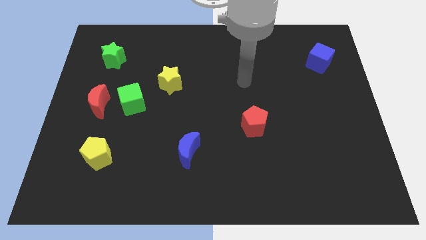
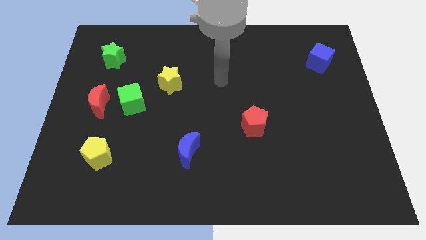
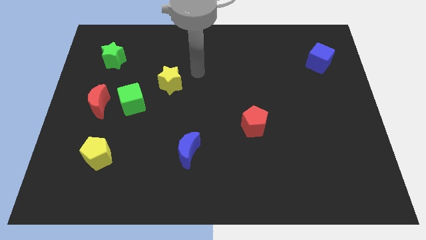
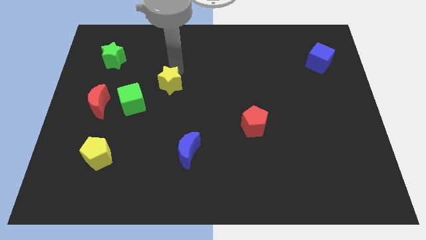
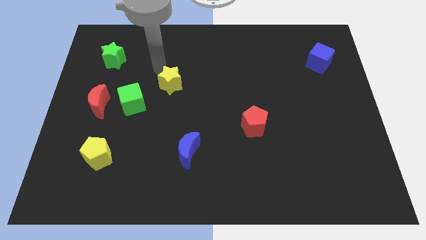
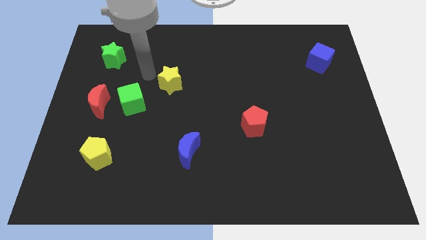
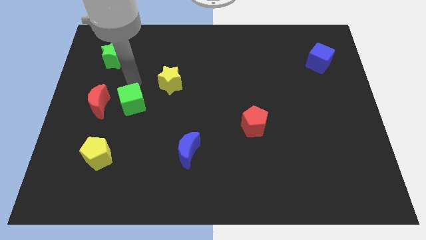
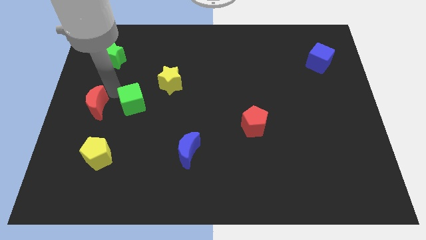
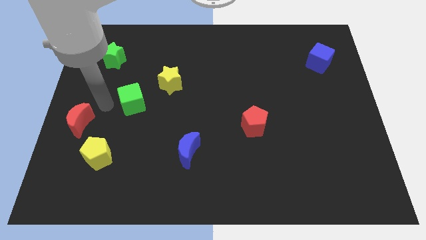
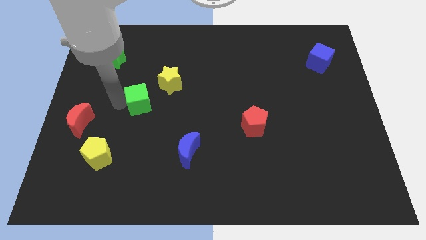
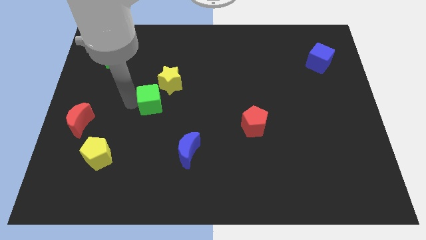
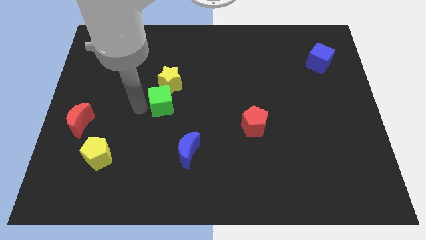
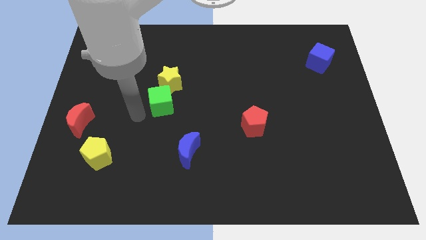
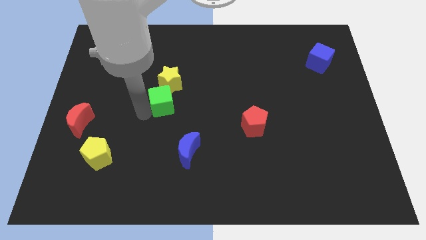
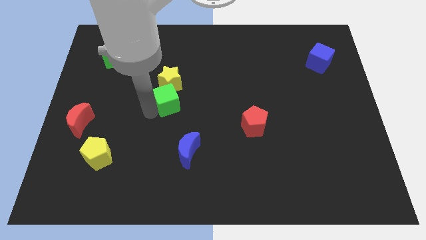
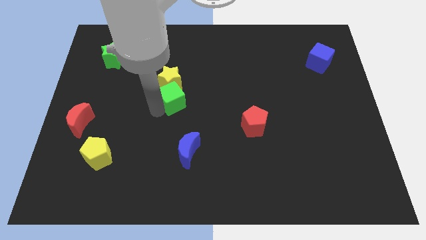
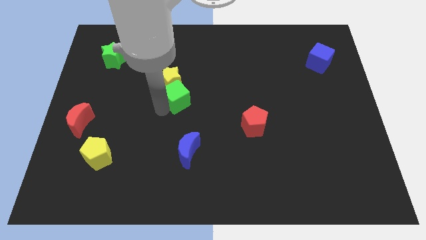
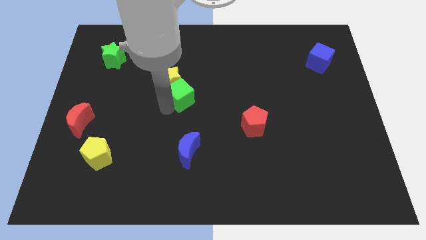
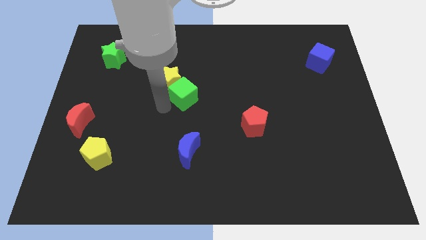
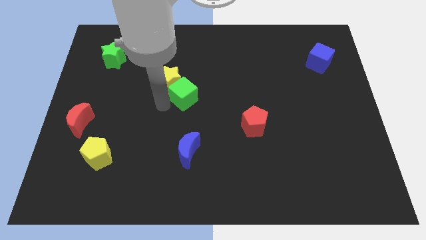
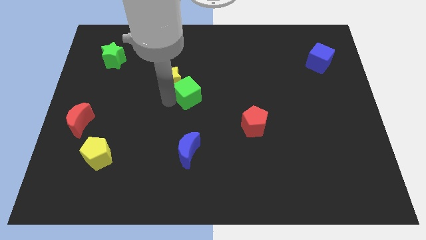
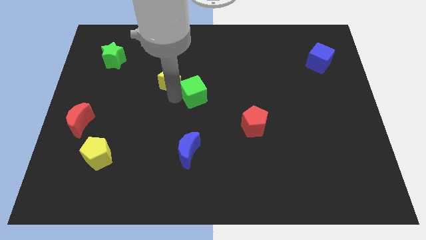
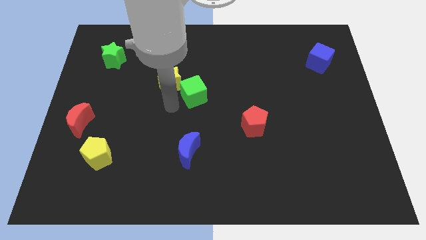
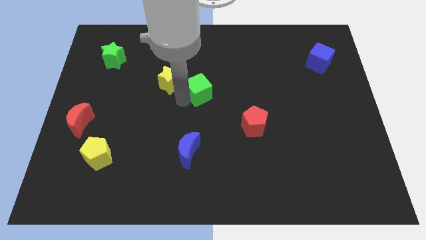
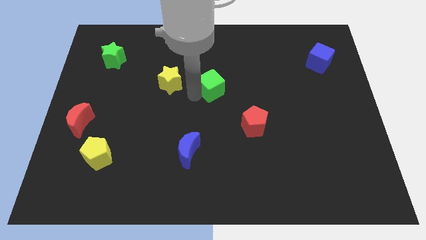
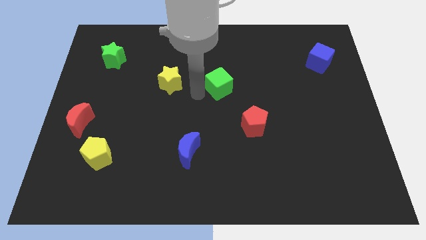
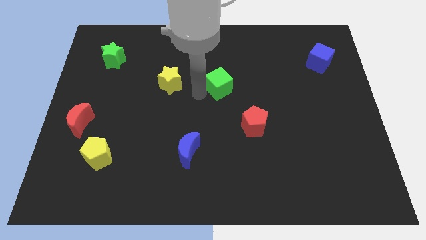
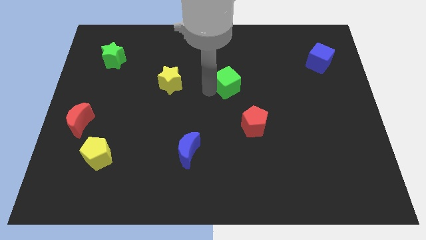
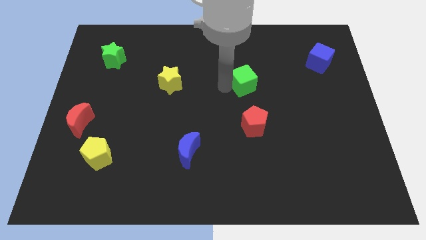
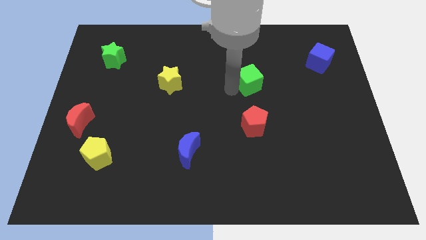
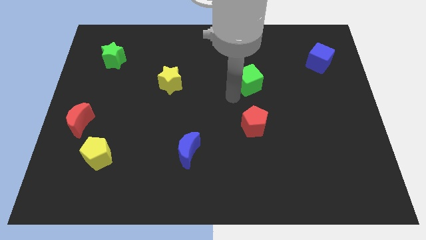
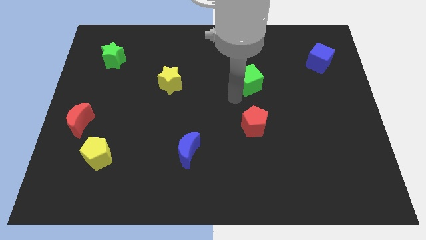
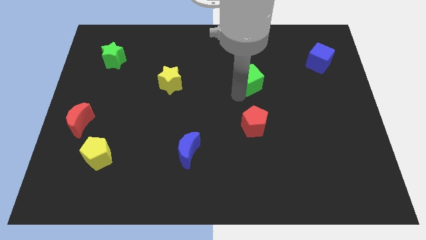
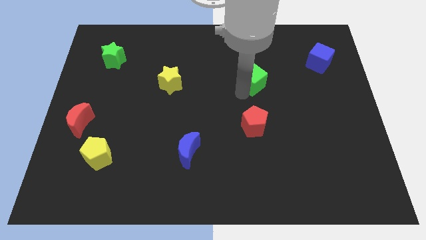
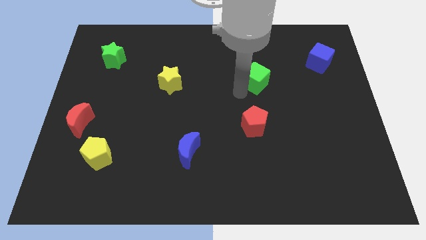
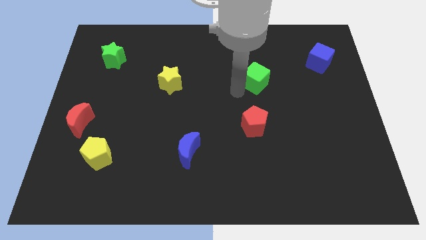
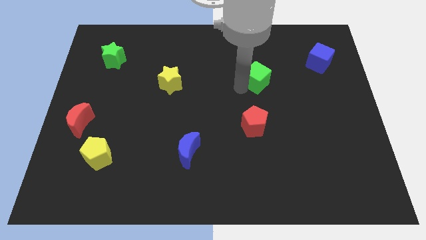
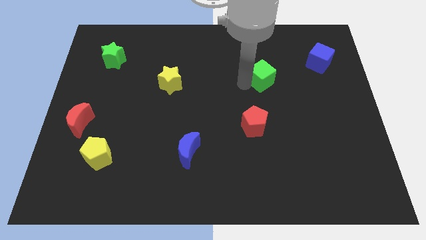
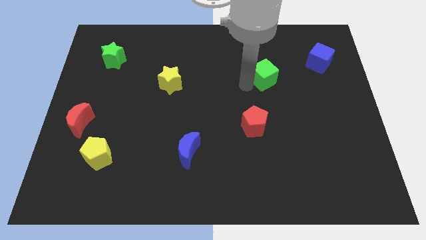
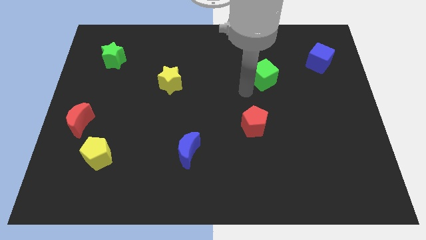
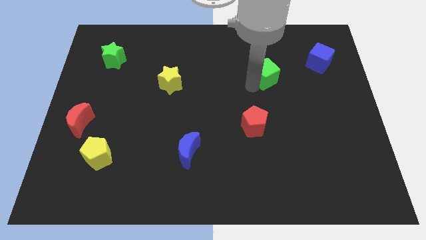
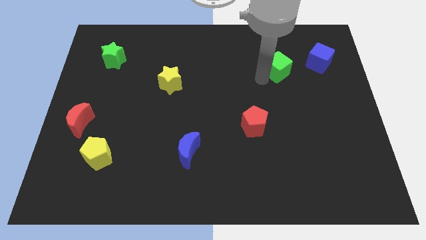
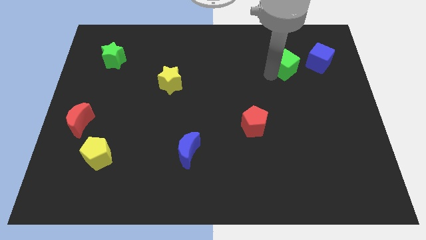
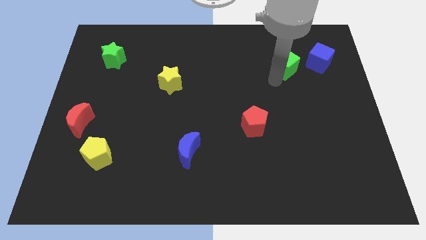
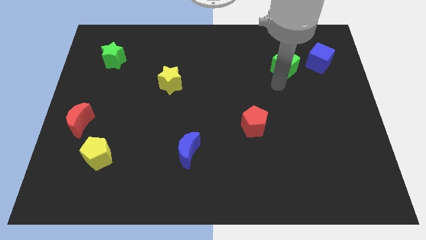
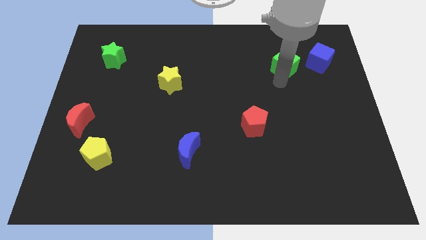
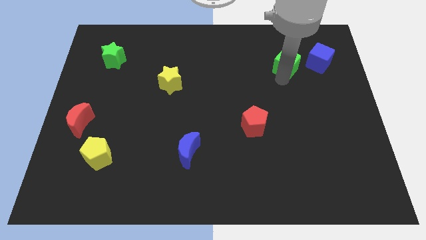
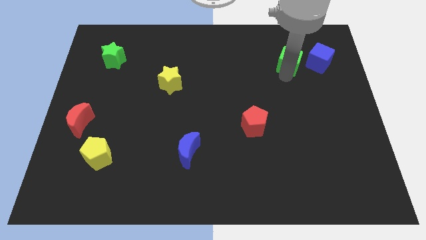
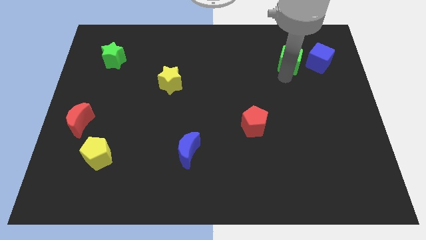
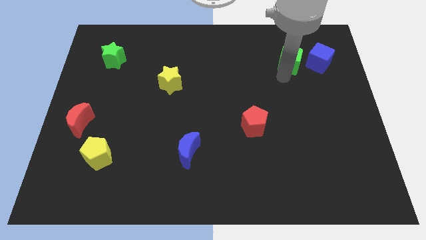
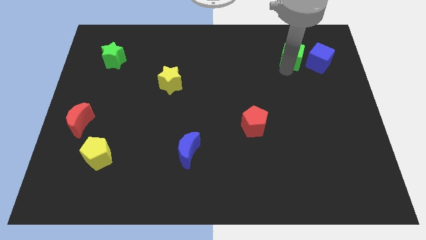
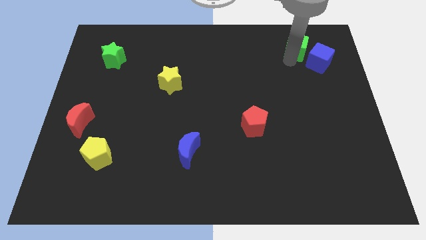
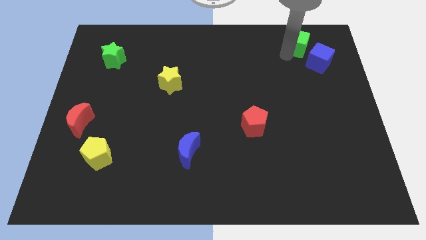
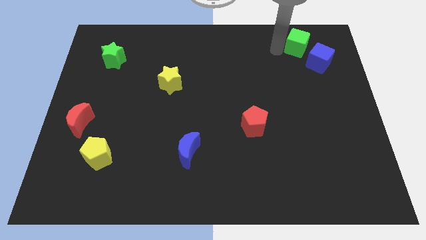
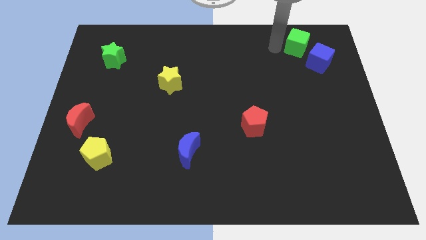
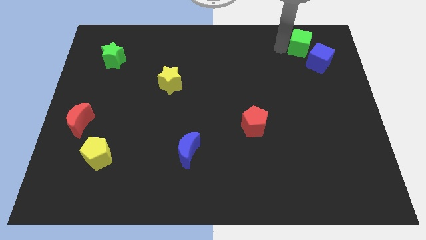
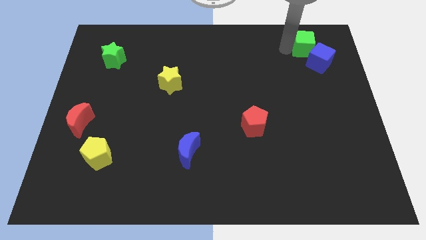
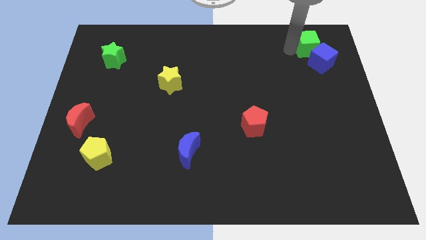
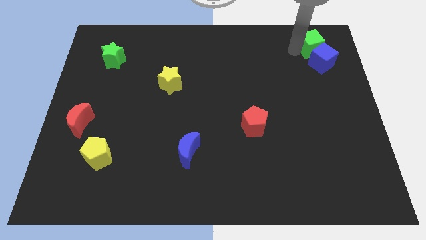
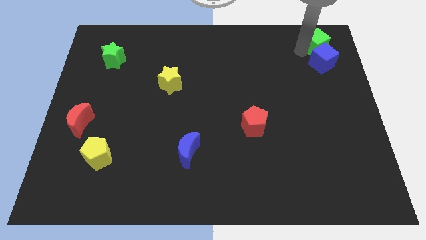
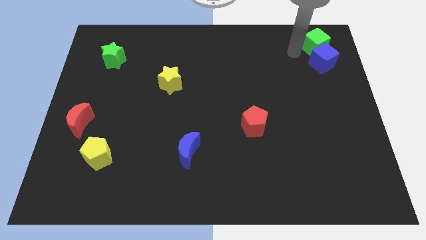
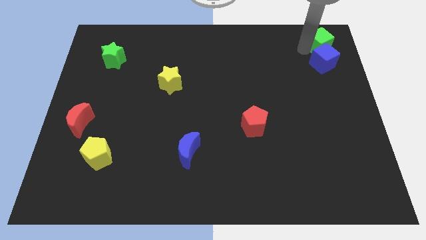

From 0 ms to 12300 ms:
push the green cube to the top right corner

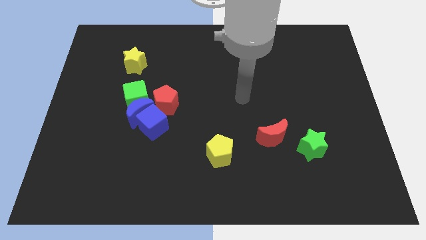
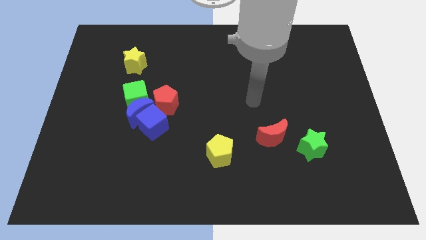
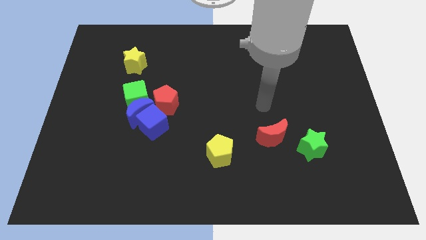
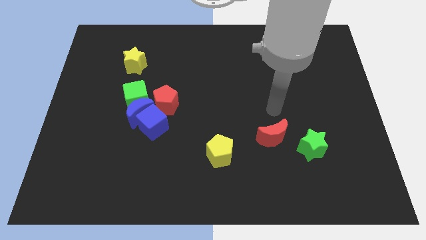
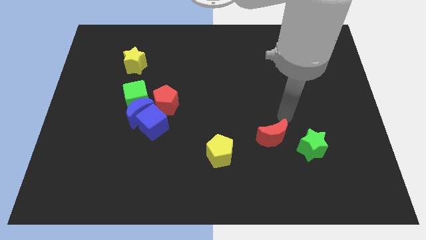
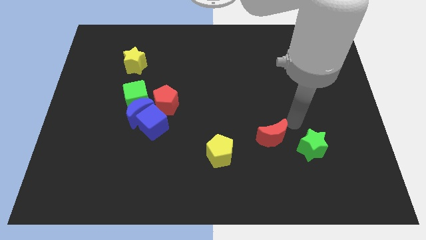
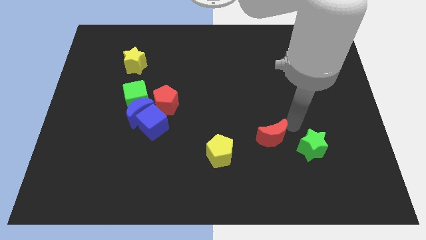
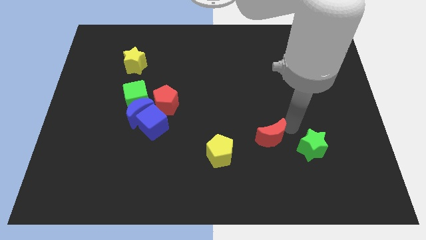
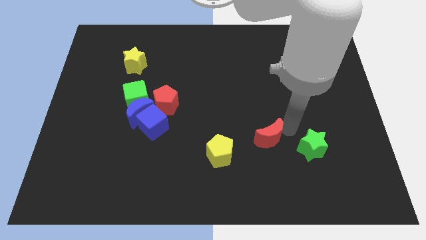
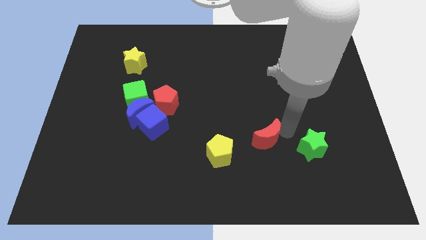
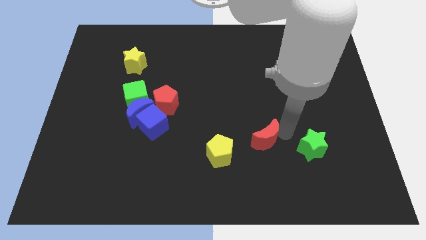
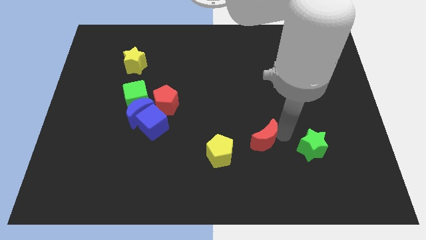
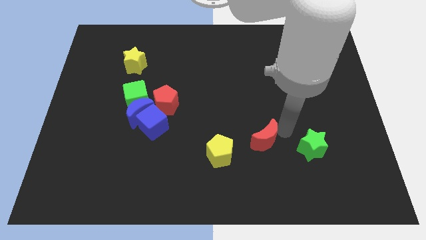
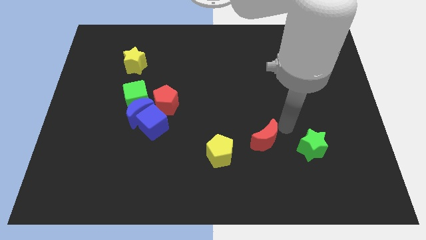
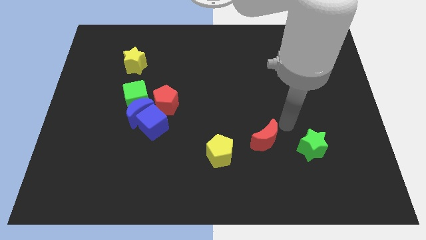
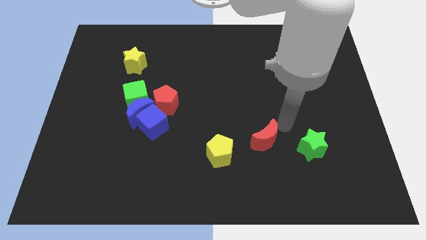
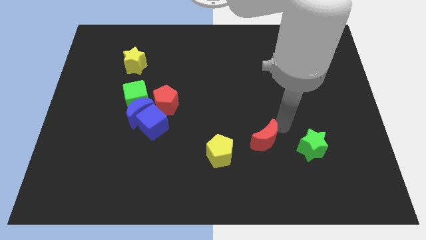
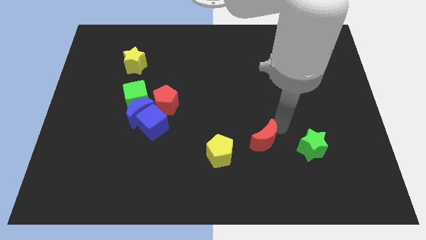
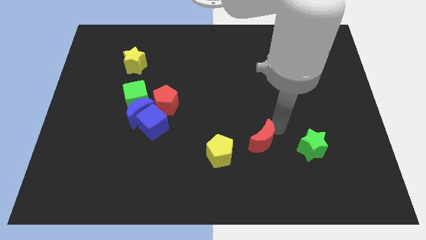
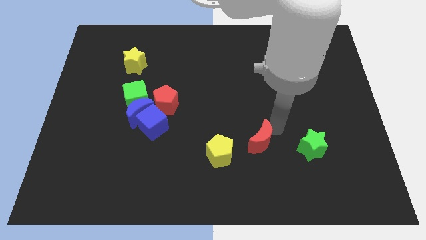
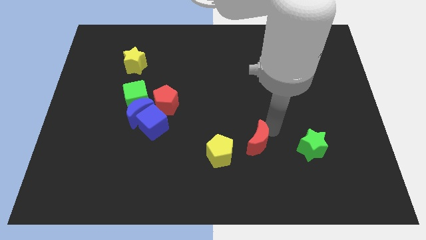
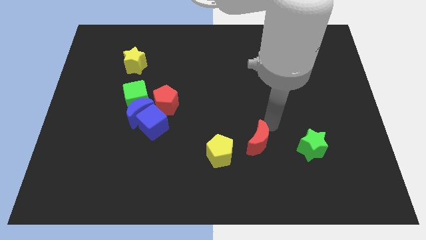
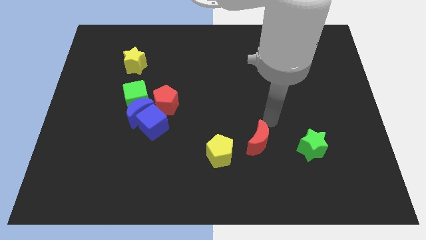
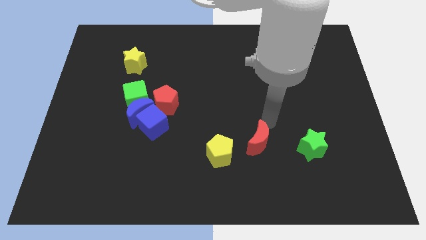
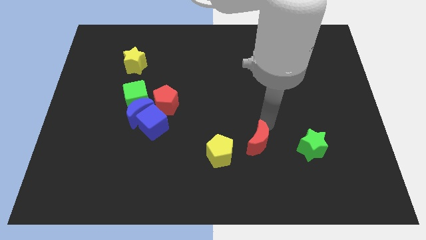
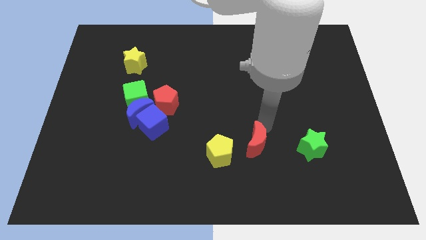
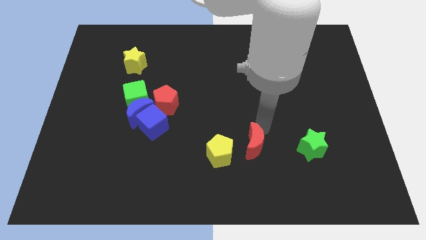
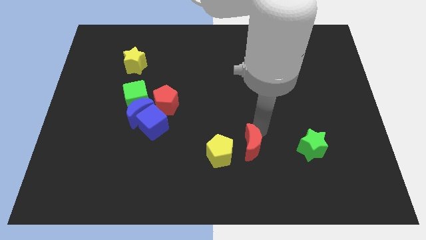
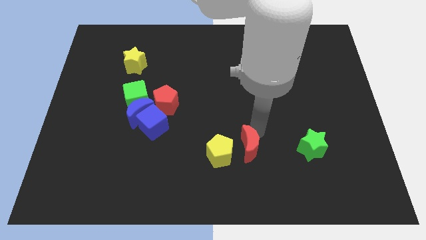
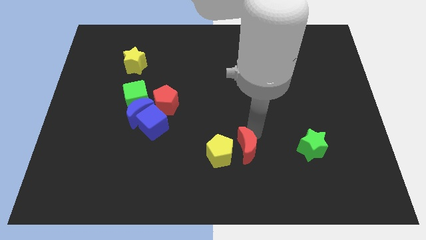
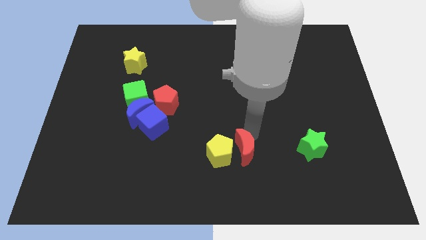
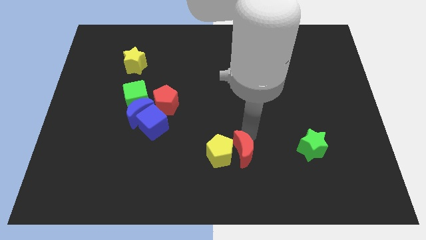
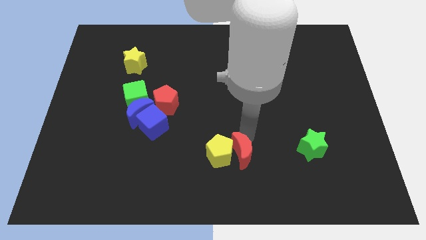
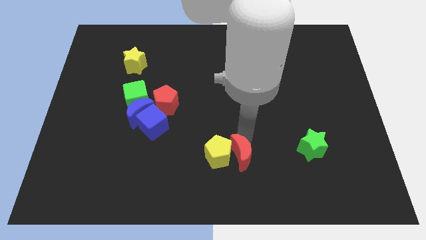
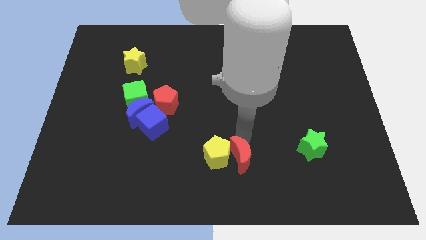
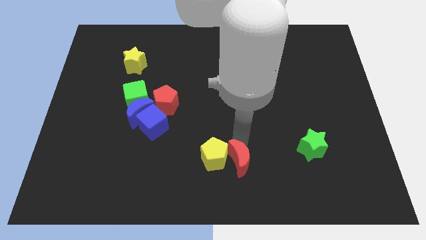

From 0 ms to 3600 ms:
slide the red moon to the bottom side
